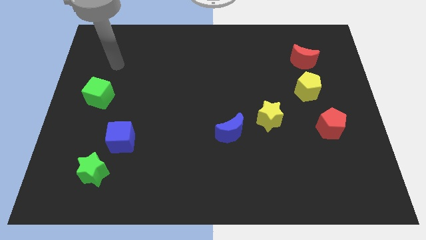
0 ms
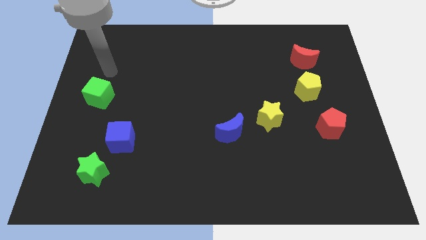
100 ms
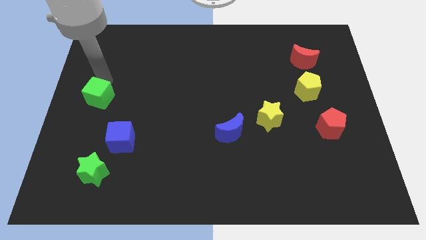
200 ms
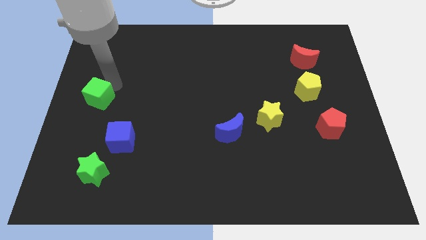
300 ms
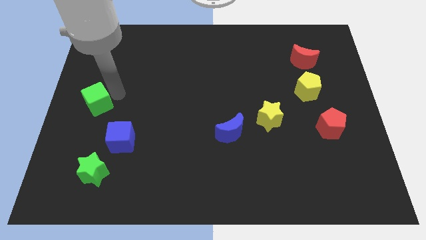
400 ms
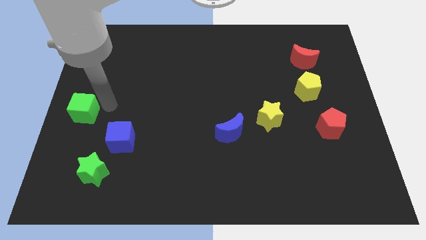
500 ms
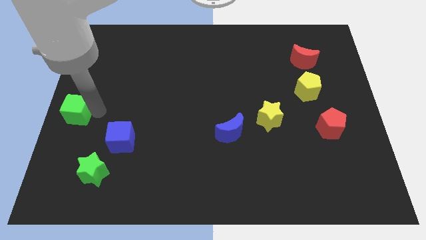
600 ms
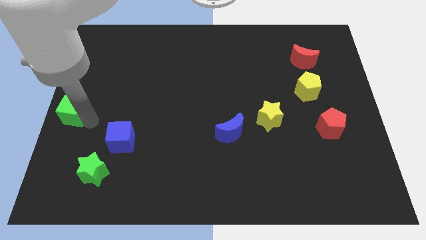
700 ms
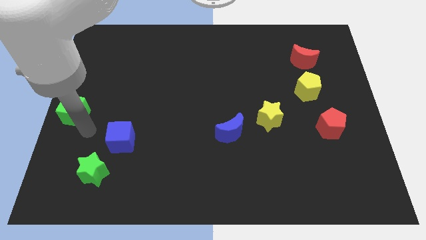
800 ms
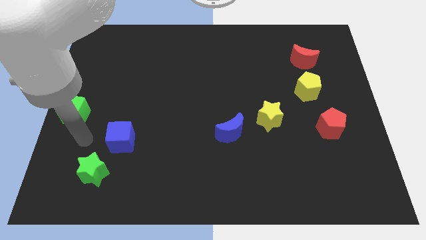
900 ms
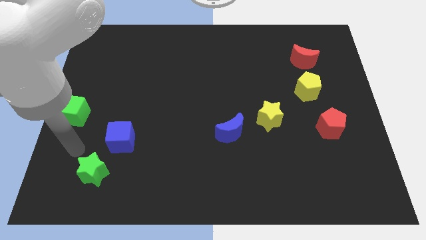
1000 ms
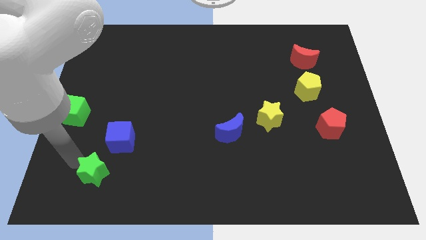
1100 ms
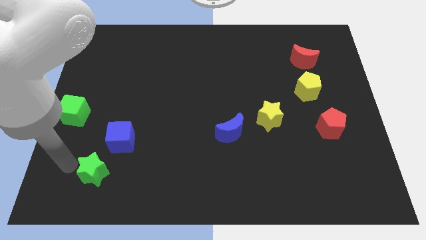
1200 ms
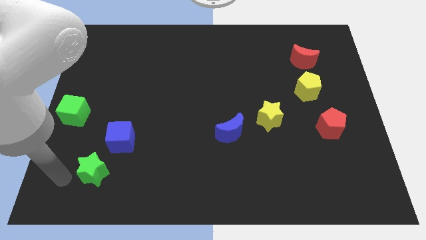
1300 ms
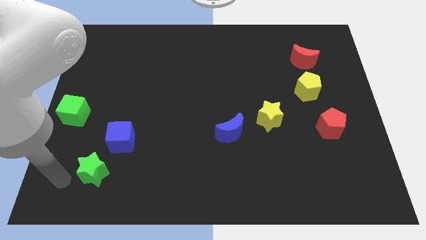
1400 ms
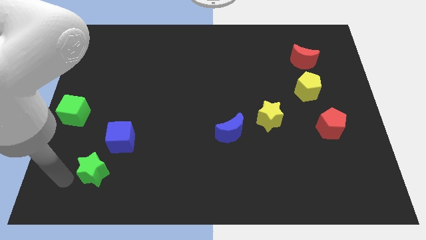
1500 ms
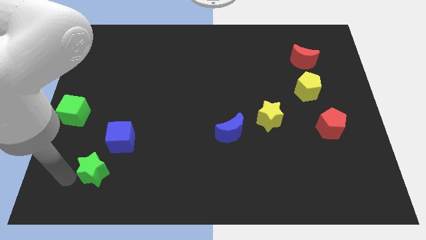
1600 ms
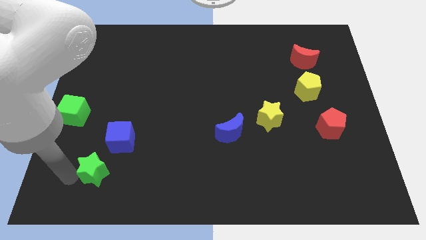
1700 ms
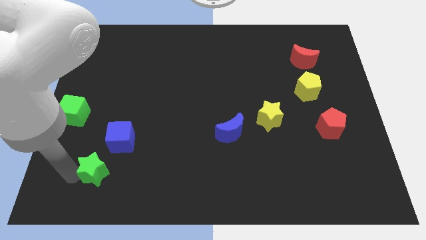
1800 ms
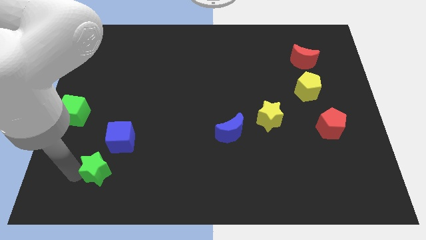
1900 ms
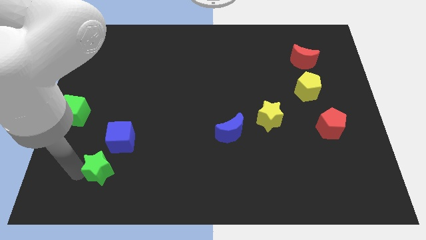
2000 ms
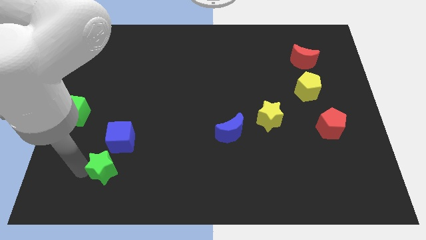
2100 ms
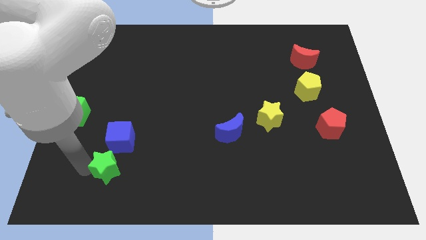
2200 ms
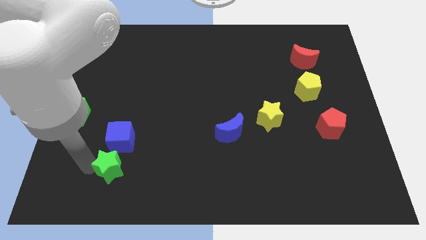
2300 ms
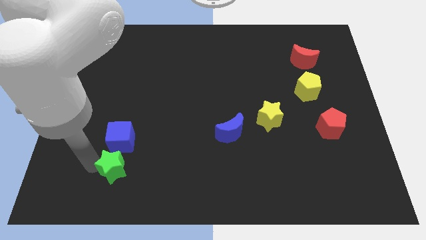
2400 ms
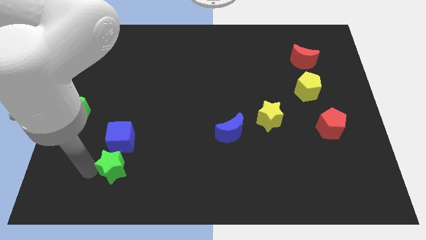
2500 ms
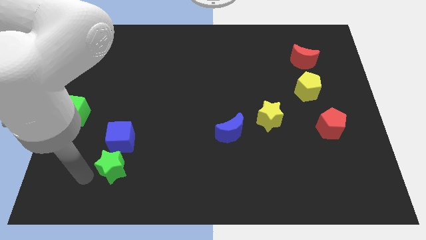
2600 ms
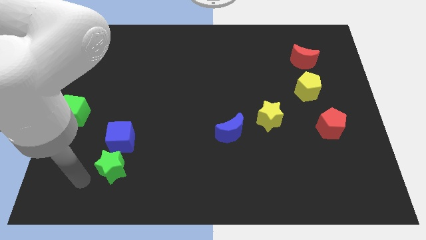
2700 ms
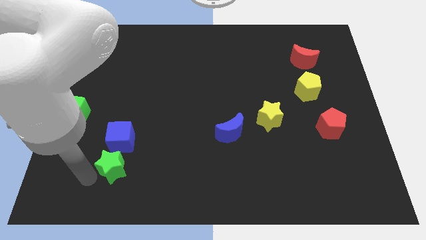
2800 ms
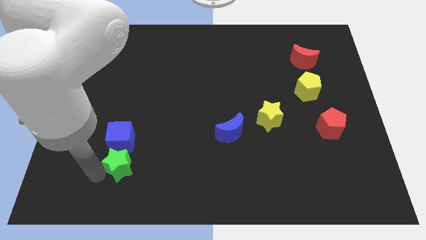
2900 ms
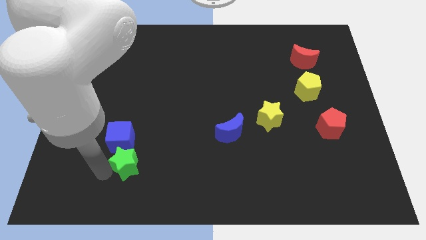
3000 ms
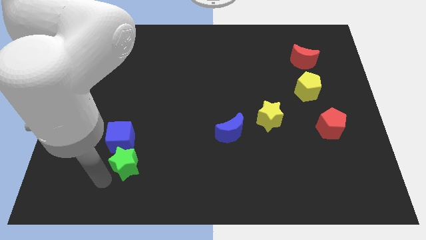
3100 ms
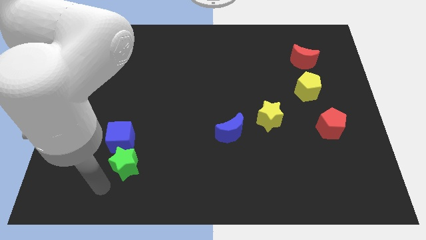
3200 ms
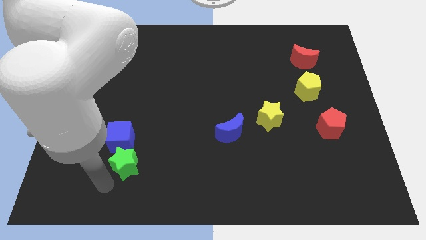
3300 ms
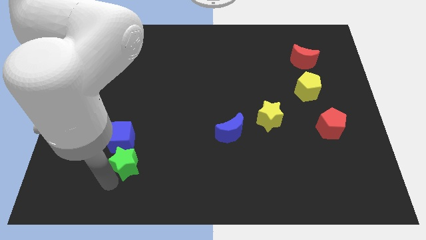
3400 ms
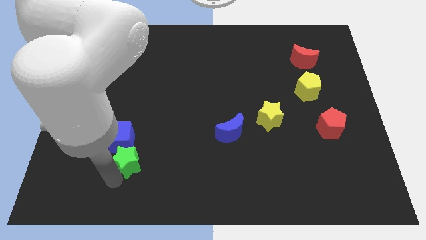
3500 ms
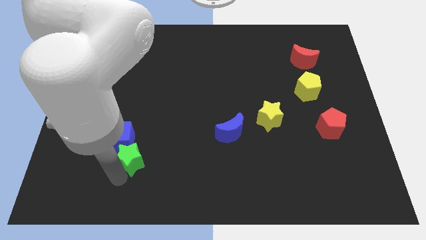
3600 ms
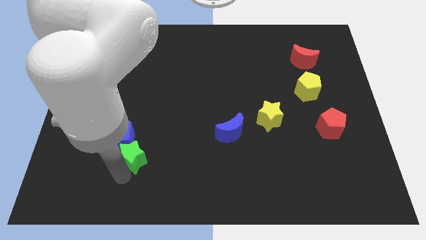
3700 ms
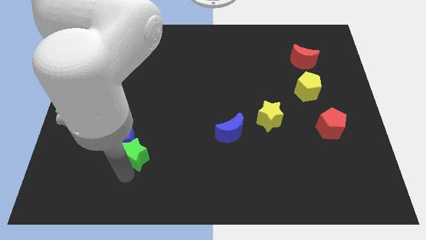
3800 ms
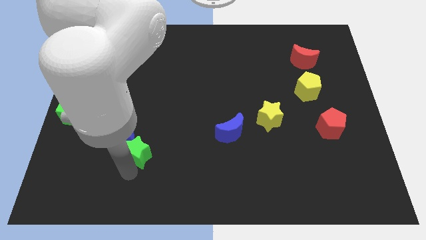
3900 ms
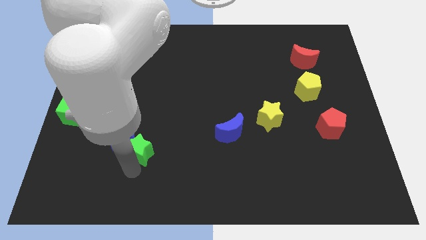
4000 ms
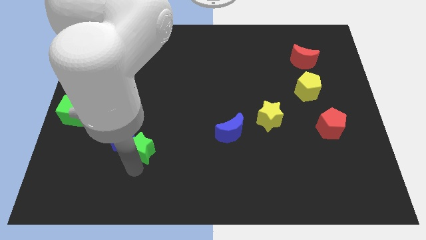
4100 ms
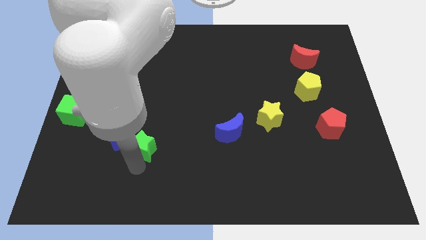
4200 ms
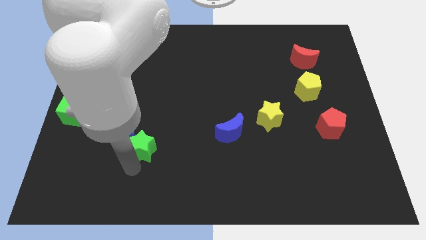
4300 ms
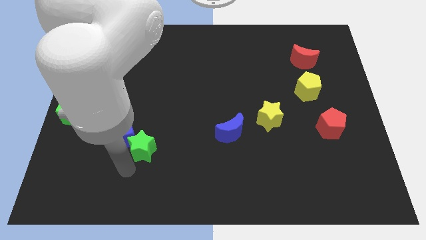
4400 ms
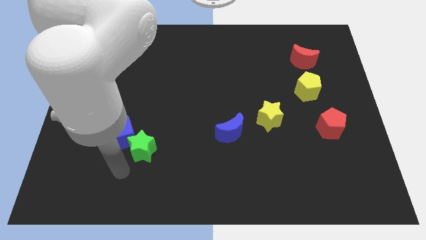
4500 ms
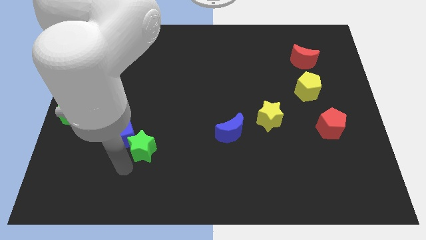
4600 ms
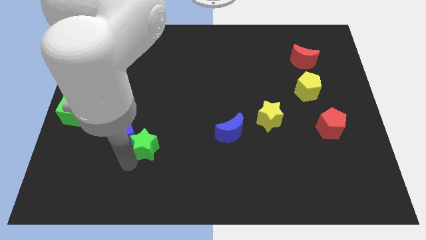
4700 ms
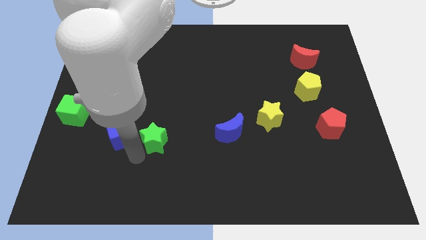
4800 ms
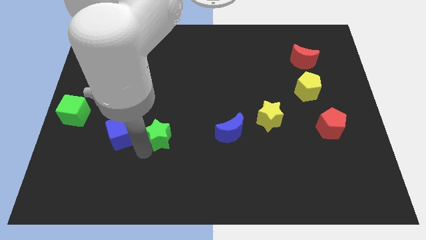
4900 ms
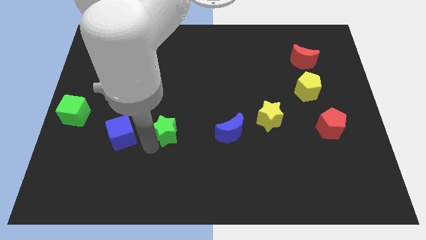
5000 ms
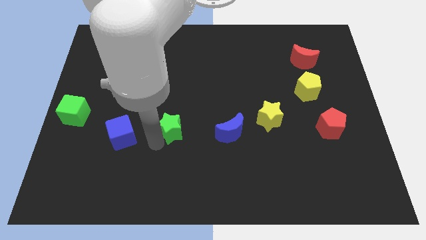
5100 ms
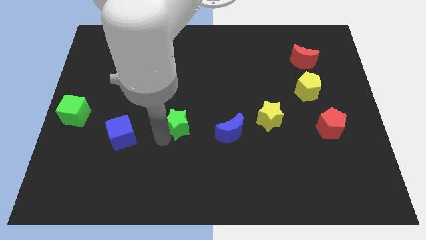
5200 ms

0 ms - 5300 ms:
put the green star to the center

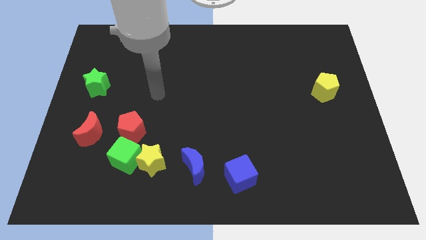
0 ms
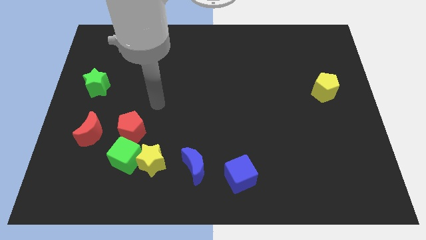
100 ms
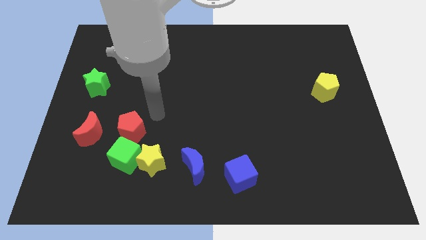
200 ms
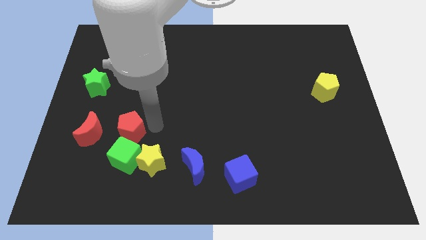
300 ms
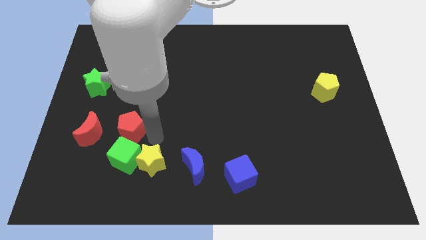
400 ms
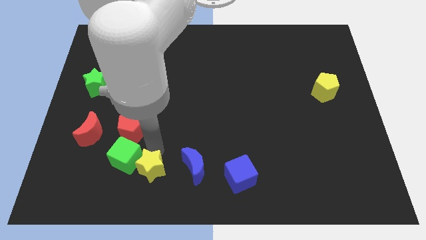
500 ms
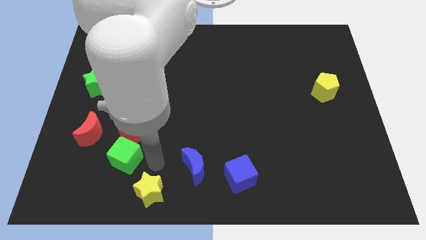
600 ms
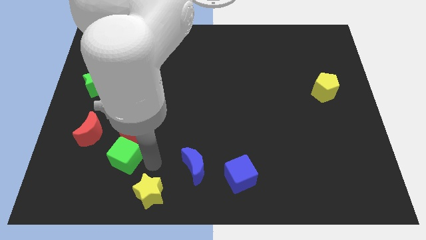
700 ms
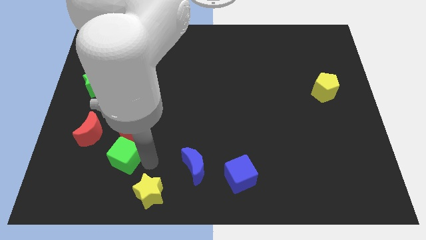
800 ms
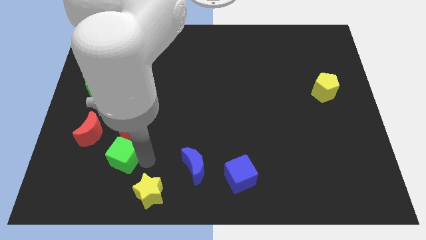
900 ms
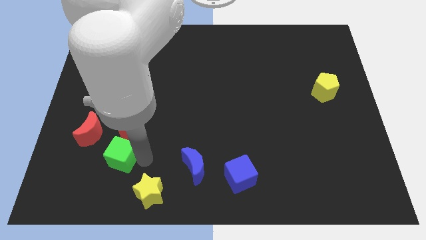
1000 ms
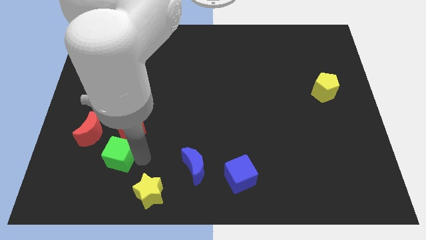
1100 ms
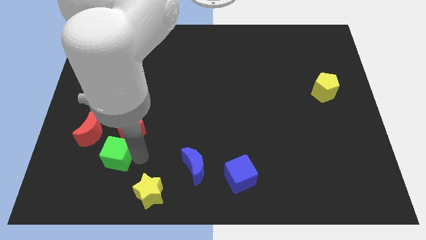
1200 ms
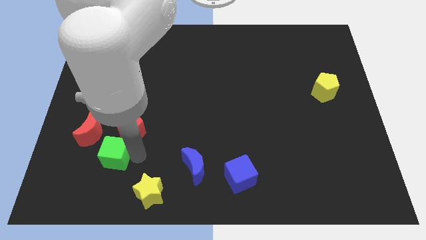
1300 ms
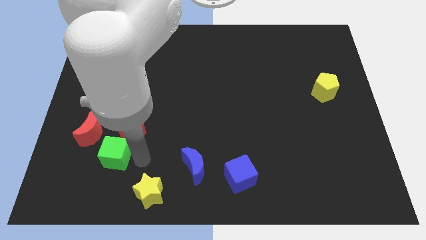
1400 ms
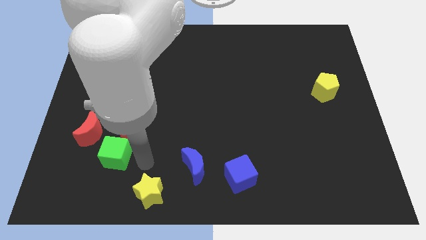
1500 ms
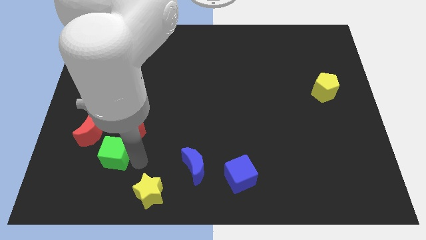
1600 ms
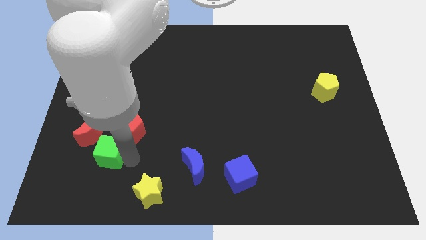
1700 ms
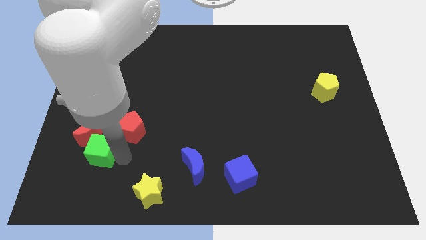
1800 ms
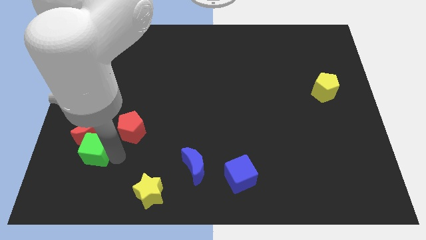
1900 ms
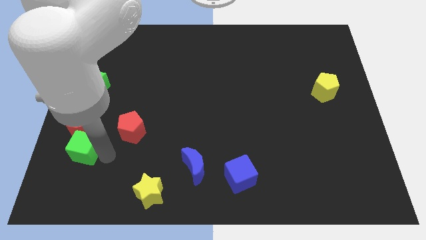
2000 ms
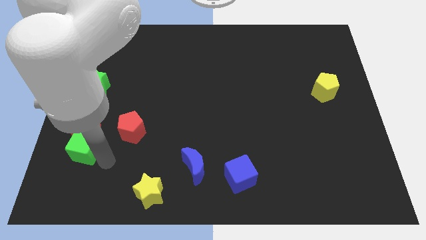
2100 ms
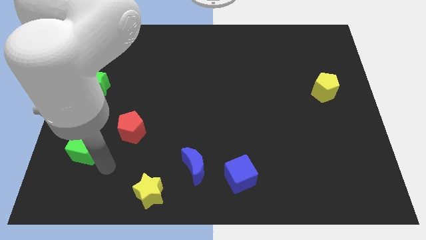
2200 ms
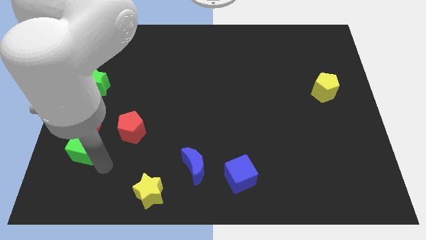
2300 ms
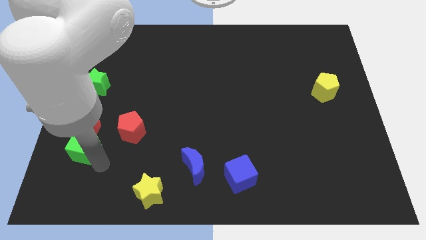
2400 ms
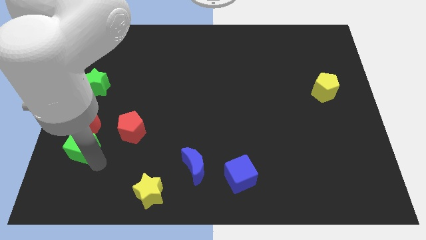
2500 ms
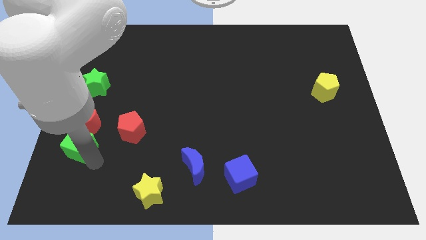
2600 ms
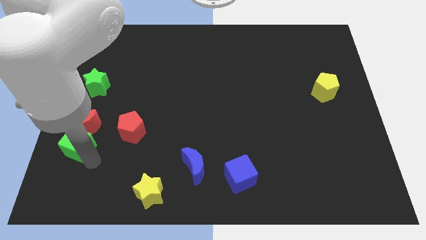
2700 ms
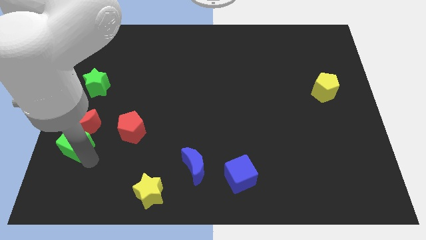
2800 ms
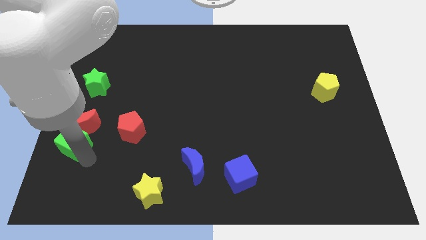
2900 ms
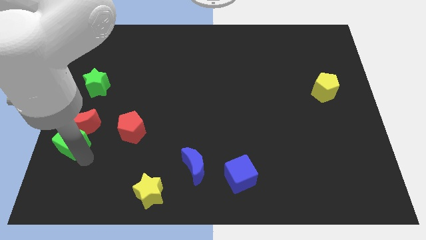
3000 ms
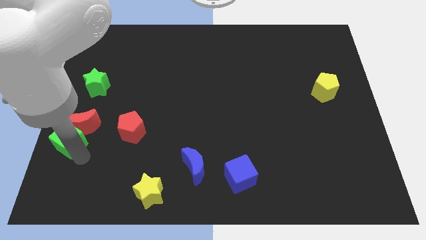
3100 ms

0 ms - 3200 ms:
slide the green cube to the center left
